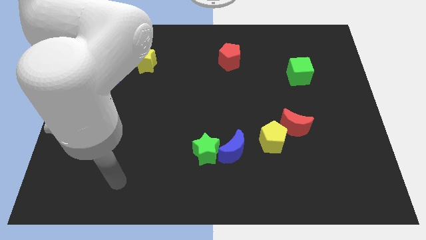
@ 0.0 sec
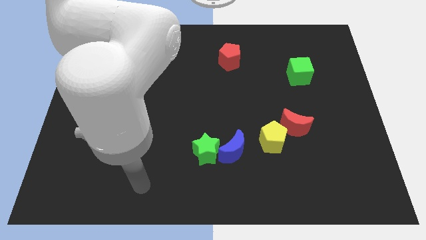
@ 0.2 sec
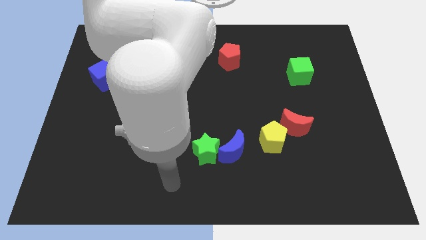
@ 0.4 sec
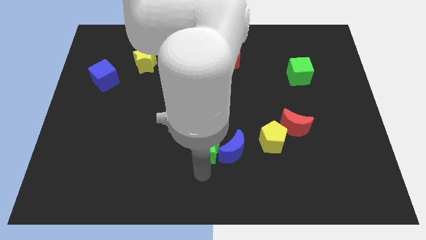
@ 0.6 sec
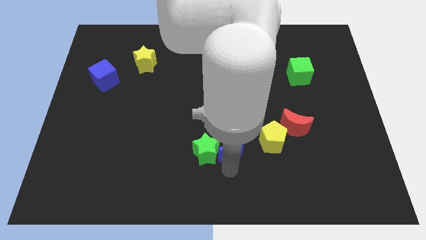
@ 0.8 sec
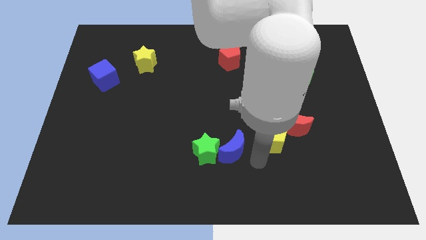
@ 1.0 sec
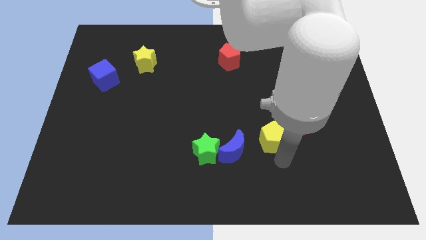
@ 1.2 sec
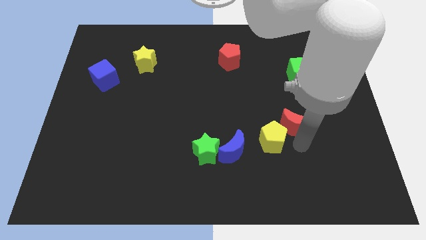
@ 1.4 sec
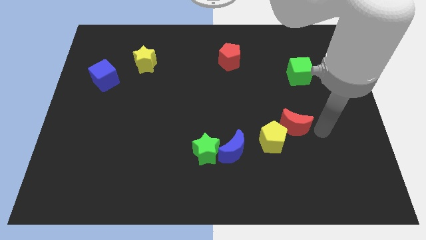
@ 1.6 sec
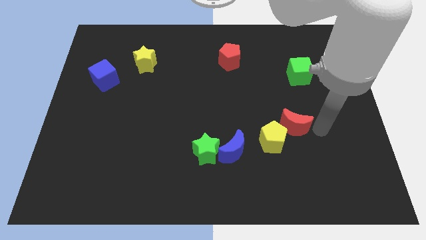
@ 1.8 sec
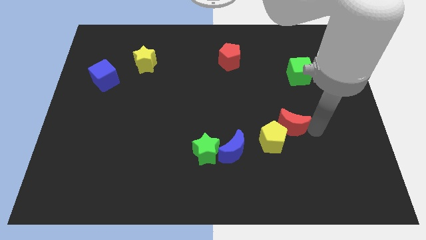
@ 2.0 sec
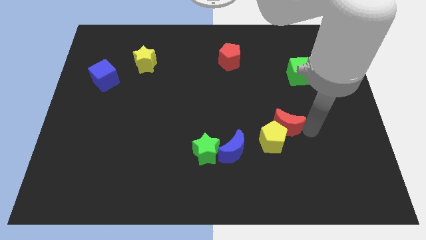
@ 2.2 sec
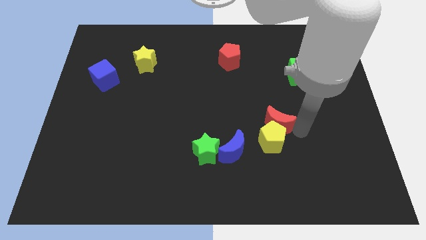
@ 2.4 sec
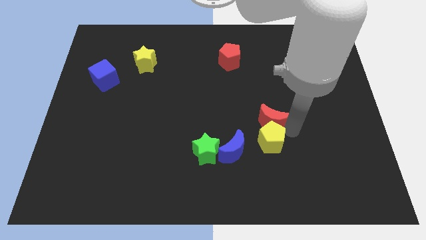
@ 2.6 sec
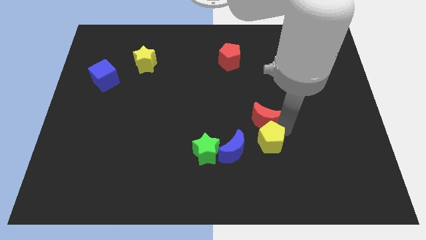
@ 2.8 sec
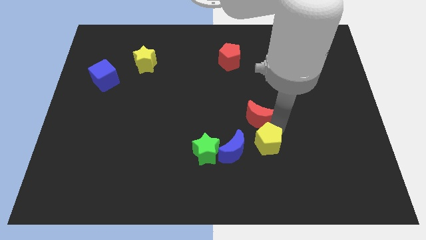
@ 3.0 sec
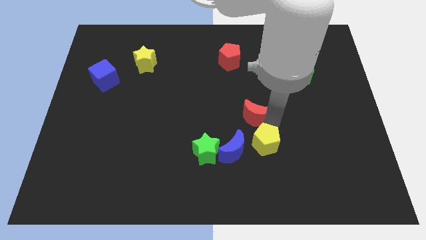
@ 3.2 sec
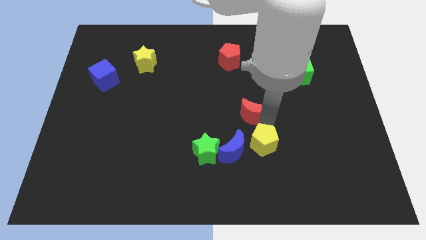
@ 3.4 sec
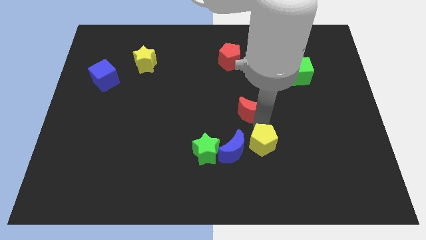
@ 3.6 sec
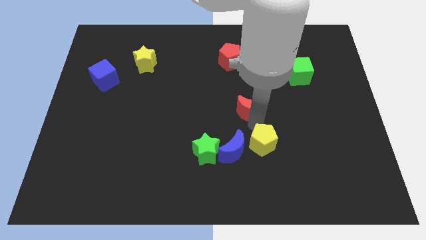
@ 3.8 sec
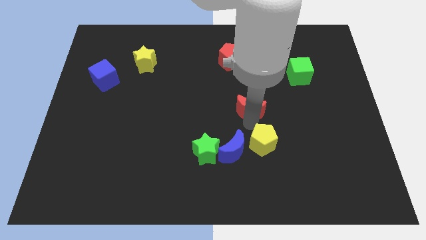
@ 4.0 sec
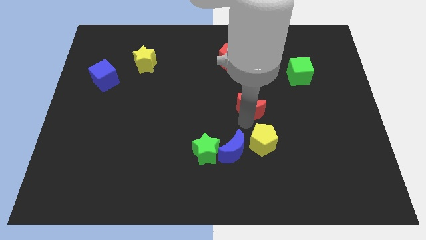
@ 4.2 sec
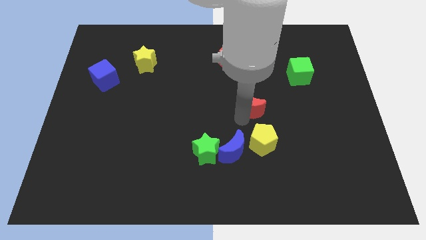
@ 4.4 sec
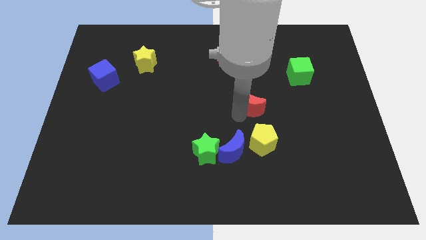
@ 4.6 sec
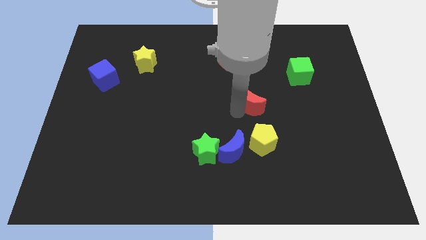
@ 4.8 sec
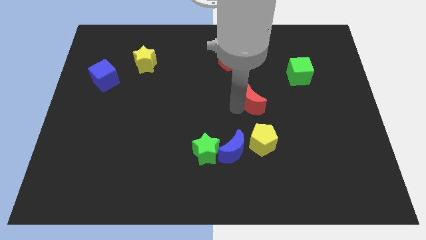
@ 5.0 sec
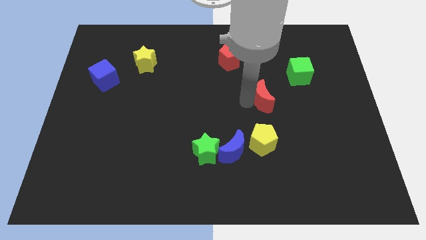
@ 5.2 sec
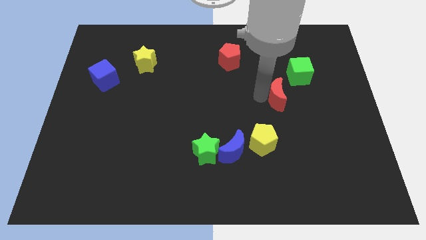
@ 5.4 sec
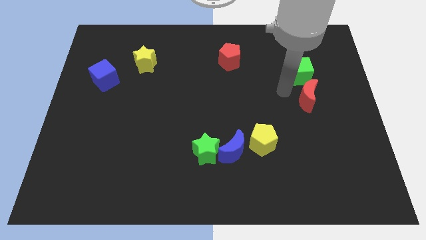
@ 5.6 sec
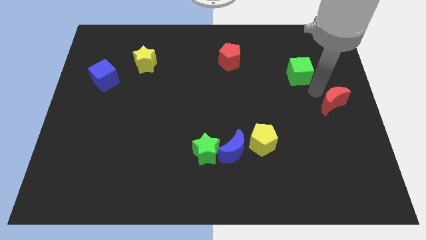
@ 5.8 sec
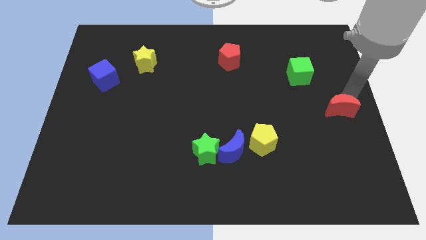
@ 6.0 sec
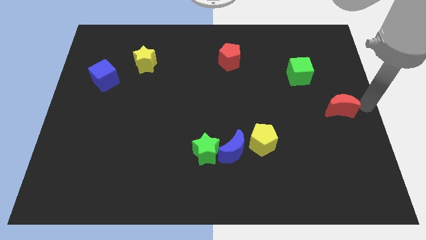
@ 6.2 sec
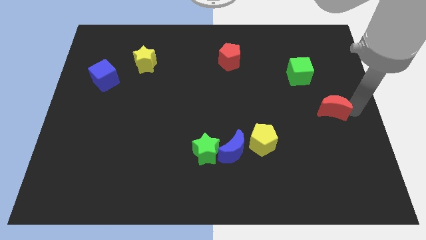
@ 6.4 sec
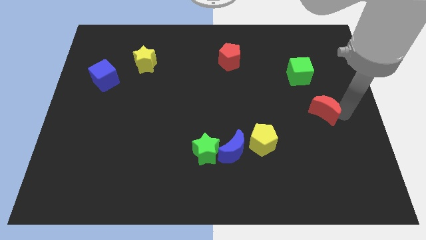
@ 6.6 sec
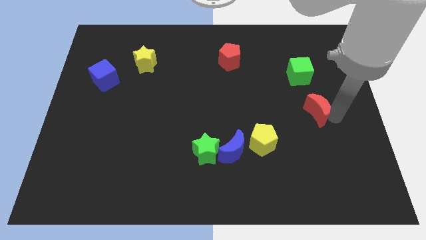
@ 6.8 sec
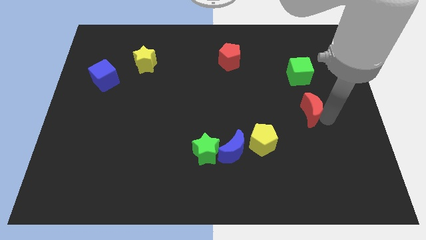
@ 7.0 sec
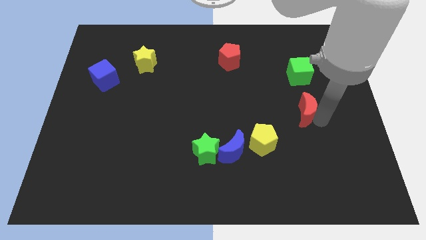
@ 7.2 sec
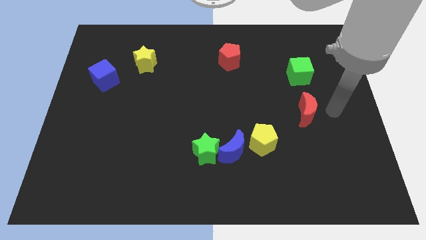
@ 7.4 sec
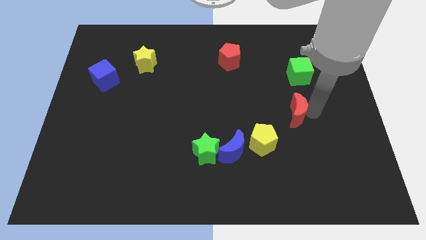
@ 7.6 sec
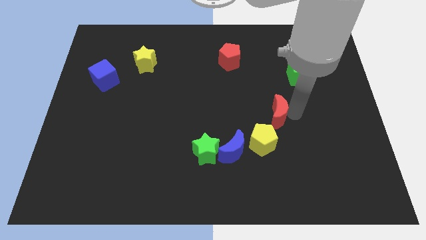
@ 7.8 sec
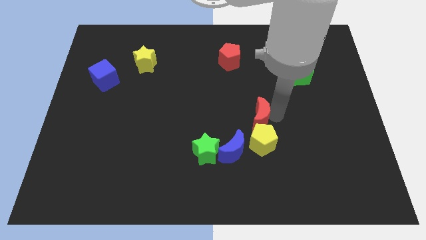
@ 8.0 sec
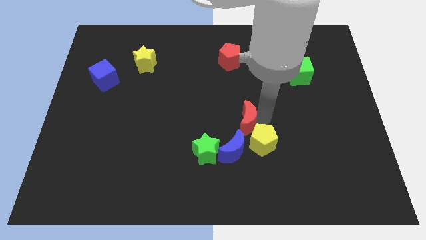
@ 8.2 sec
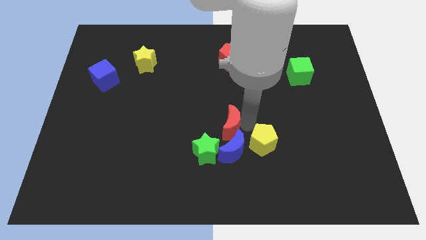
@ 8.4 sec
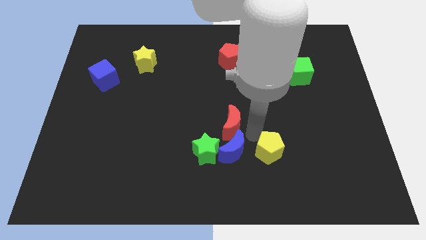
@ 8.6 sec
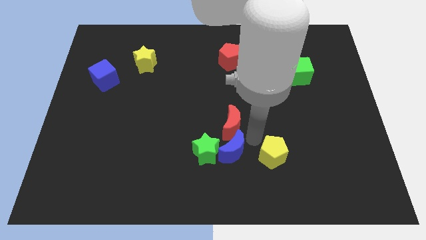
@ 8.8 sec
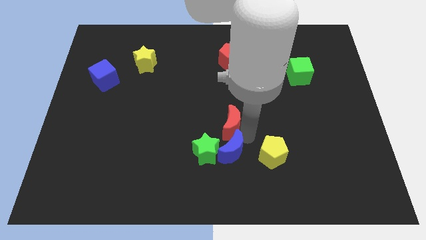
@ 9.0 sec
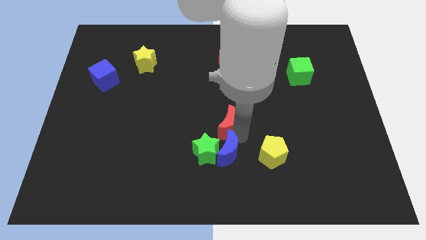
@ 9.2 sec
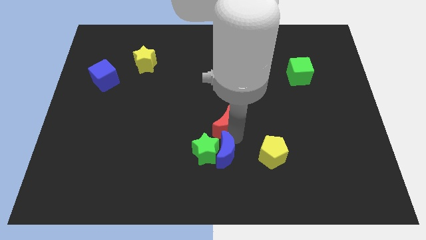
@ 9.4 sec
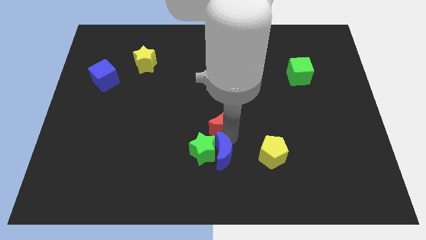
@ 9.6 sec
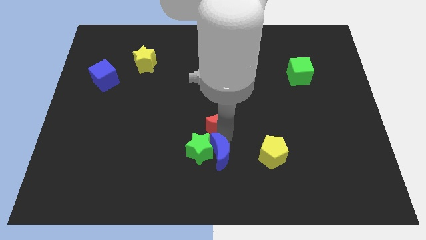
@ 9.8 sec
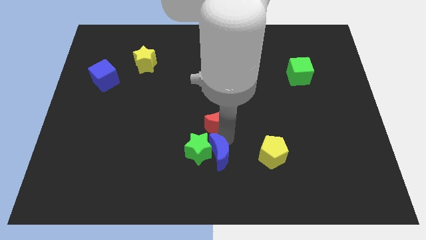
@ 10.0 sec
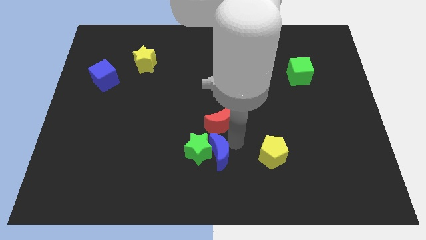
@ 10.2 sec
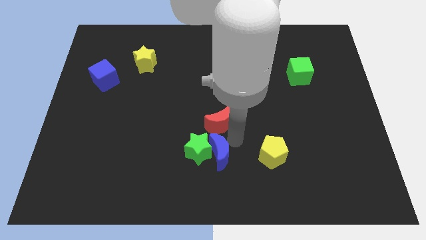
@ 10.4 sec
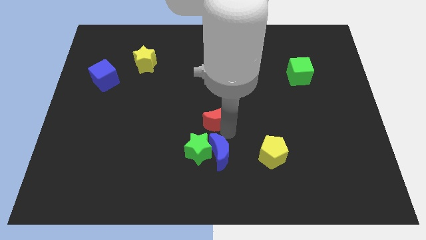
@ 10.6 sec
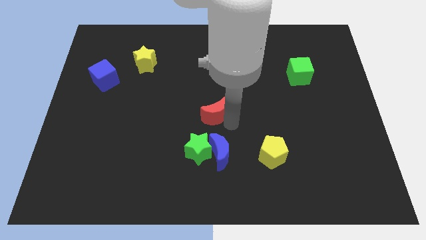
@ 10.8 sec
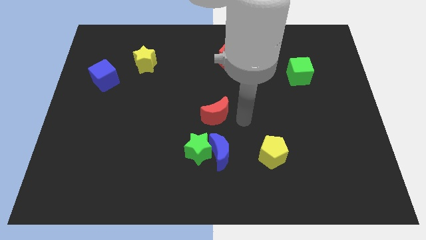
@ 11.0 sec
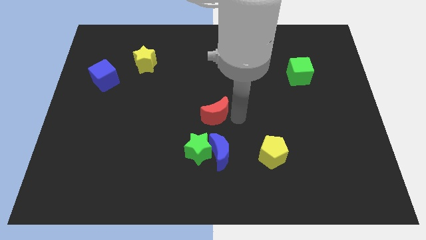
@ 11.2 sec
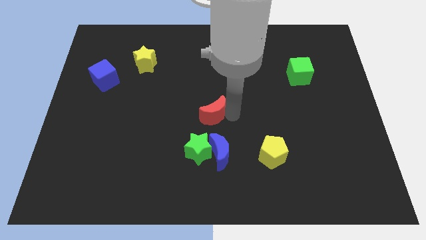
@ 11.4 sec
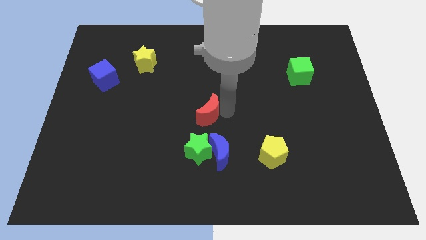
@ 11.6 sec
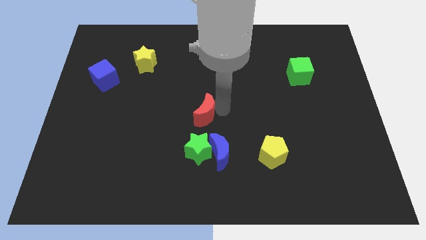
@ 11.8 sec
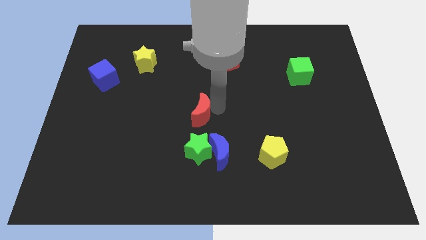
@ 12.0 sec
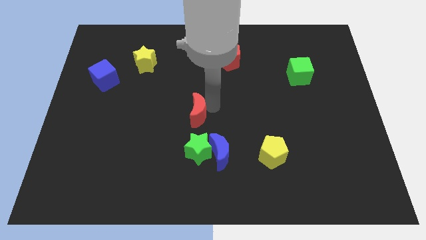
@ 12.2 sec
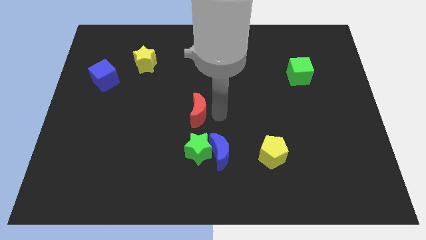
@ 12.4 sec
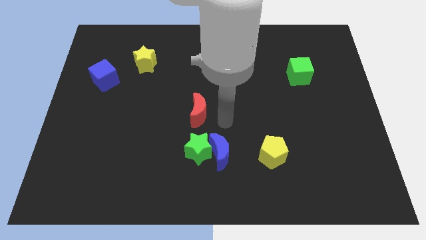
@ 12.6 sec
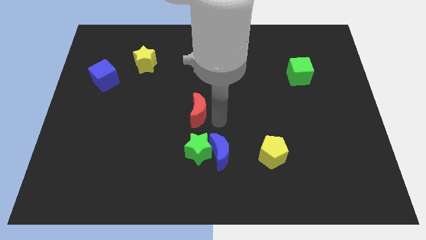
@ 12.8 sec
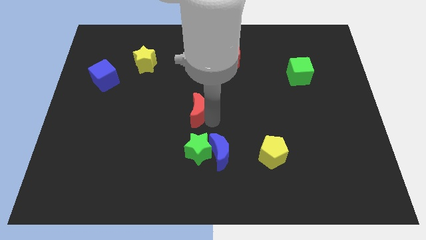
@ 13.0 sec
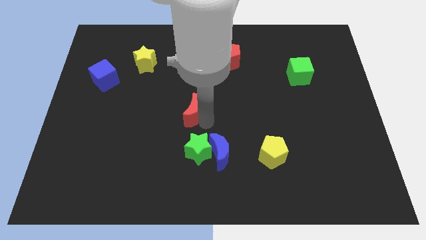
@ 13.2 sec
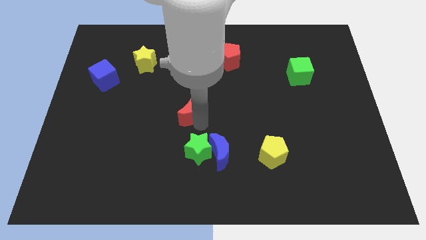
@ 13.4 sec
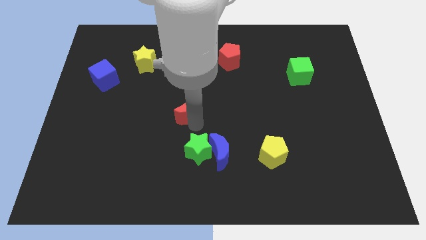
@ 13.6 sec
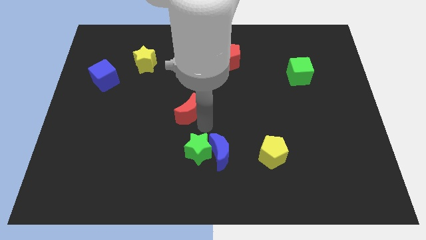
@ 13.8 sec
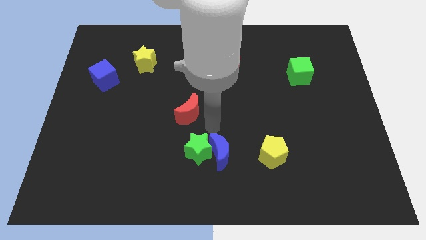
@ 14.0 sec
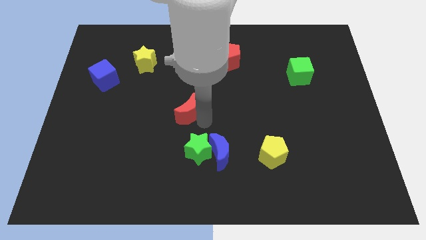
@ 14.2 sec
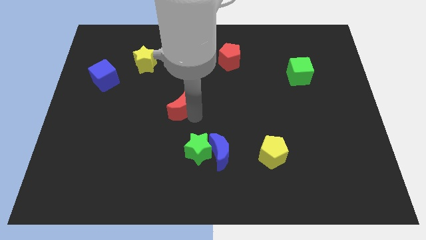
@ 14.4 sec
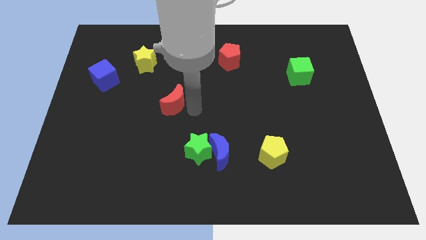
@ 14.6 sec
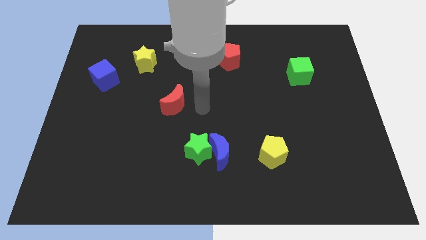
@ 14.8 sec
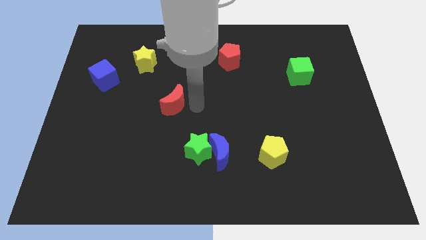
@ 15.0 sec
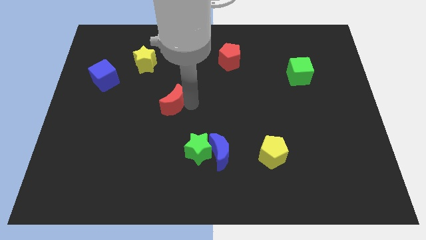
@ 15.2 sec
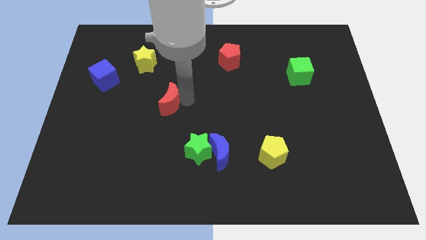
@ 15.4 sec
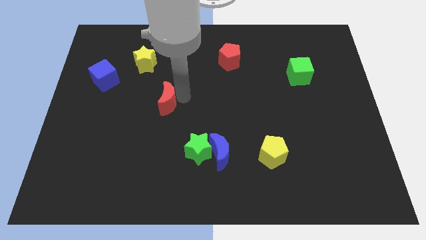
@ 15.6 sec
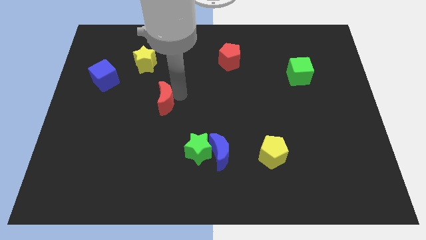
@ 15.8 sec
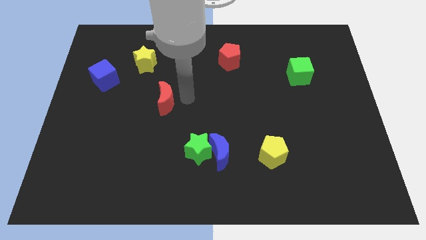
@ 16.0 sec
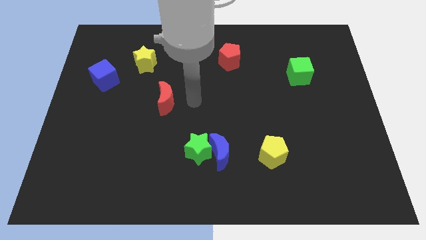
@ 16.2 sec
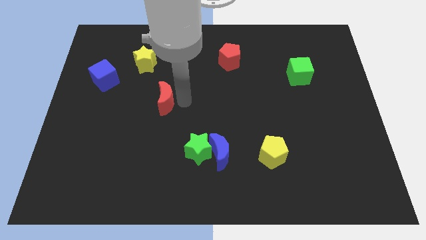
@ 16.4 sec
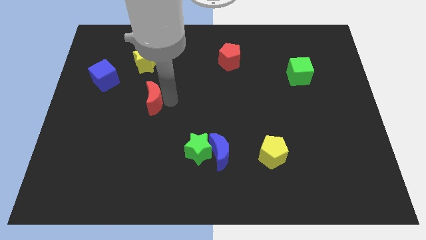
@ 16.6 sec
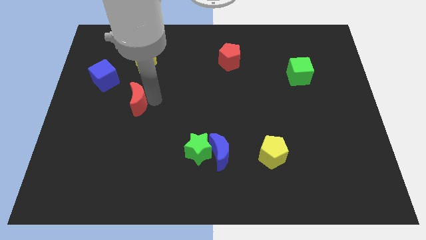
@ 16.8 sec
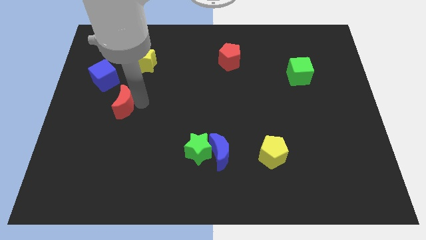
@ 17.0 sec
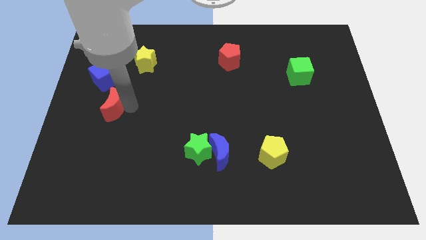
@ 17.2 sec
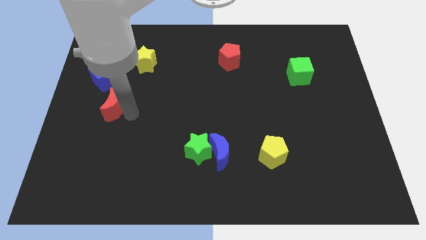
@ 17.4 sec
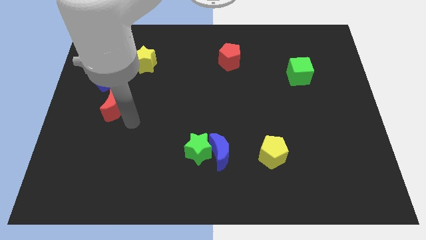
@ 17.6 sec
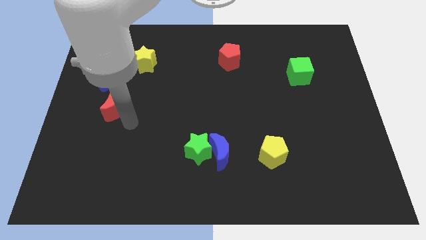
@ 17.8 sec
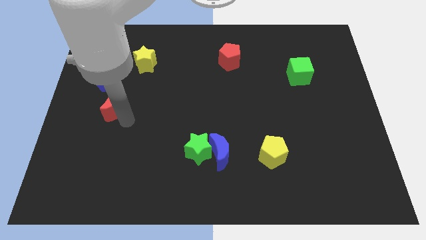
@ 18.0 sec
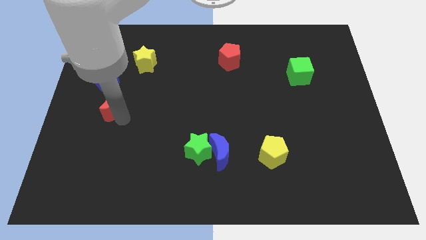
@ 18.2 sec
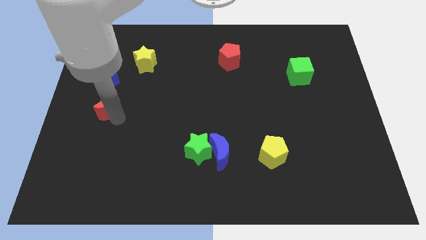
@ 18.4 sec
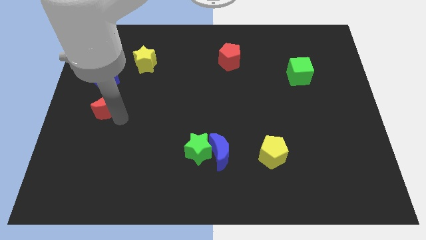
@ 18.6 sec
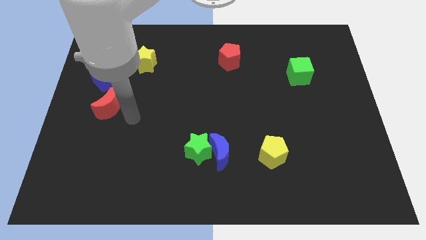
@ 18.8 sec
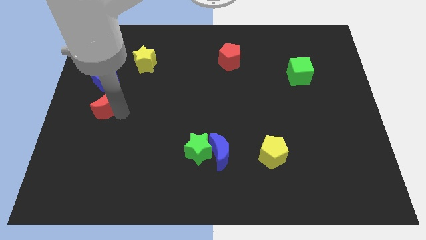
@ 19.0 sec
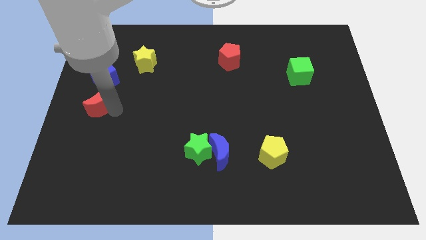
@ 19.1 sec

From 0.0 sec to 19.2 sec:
slide the red moon to the left side of the board
